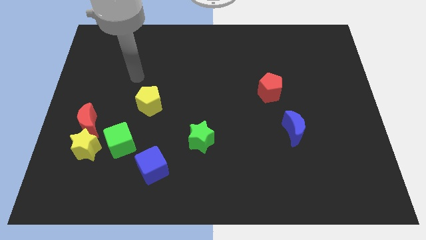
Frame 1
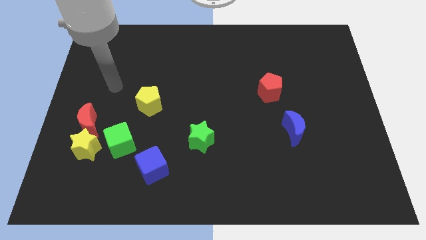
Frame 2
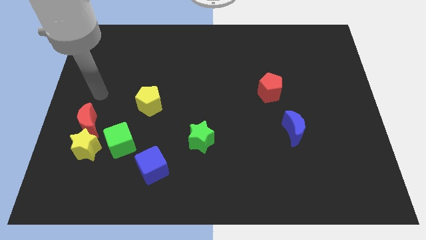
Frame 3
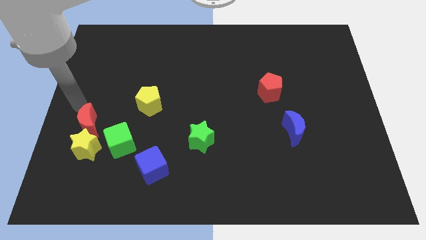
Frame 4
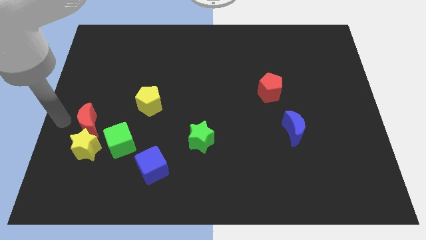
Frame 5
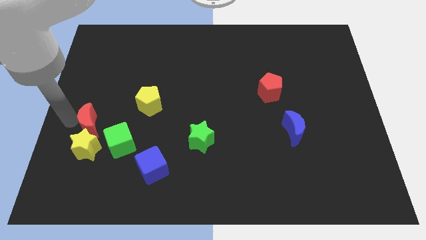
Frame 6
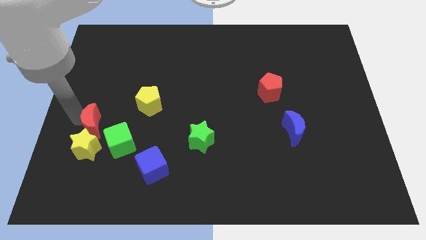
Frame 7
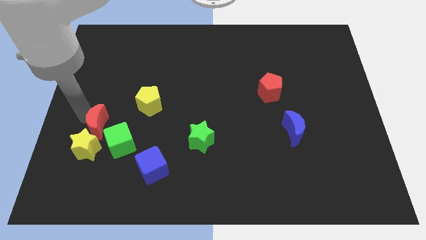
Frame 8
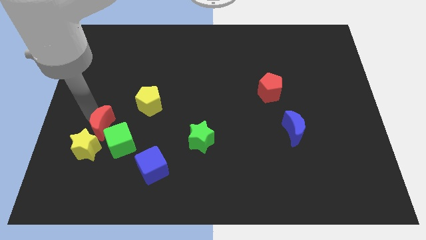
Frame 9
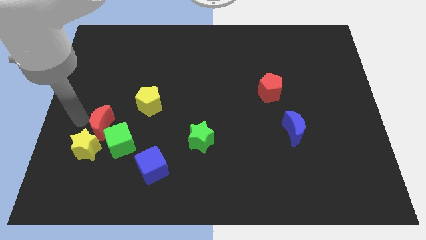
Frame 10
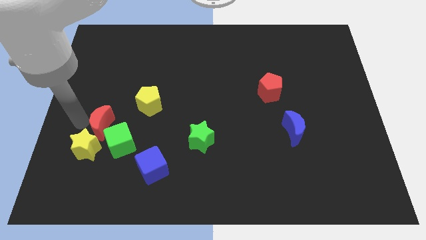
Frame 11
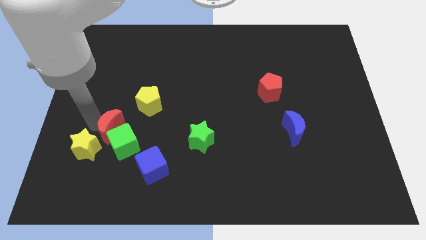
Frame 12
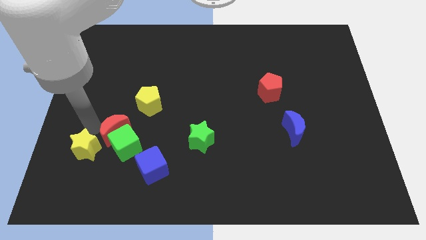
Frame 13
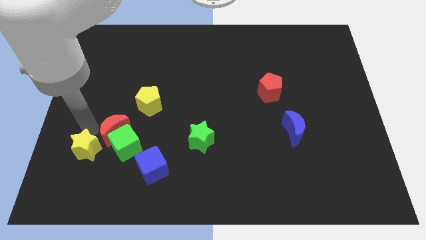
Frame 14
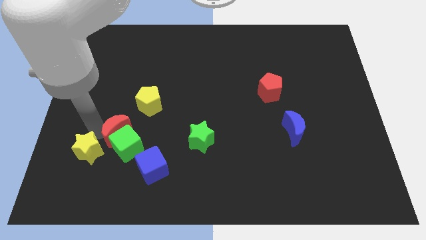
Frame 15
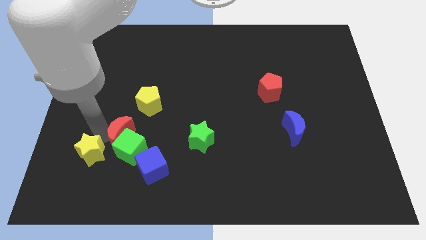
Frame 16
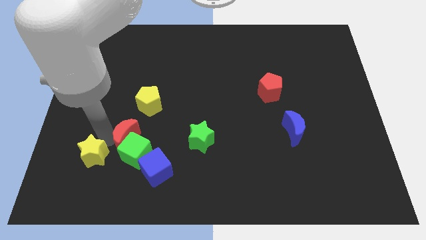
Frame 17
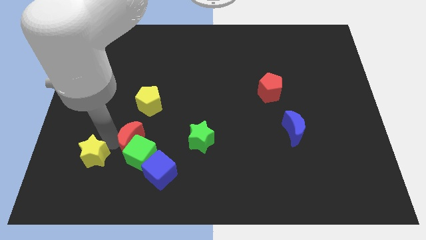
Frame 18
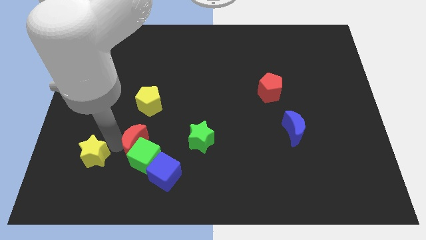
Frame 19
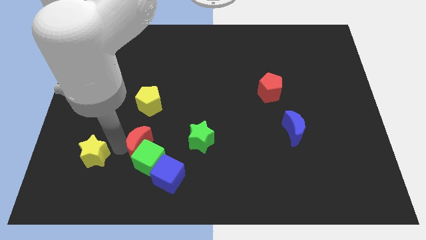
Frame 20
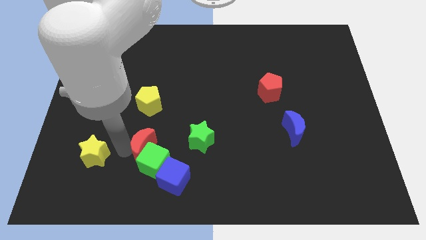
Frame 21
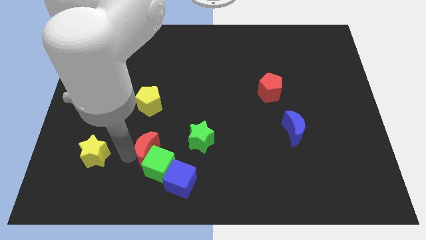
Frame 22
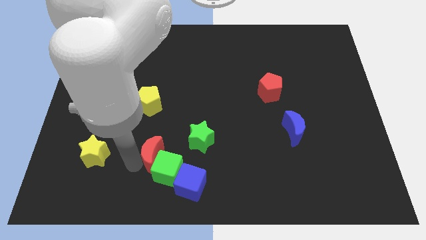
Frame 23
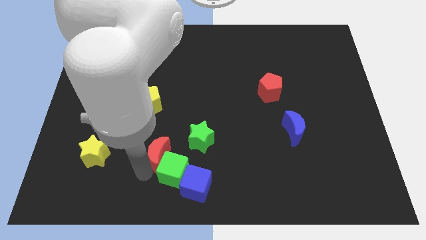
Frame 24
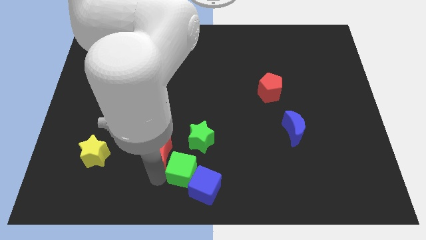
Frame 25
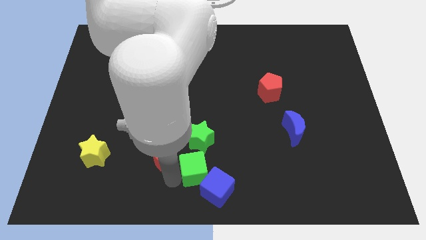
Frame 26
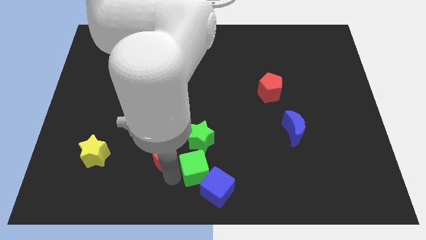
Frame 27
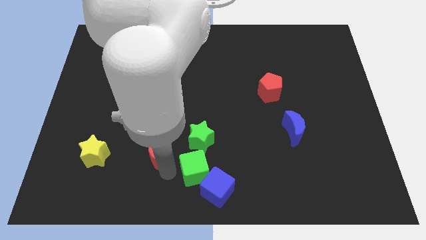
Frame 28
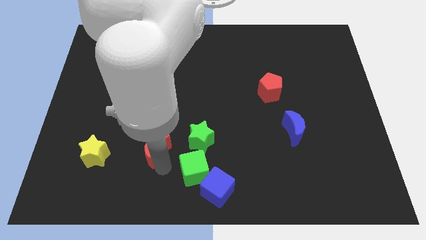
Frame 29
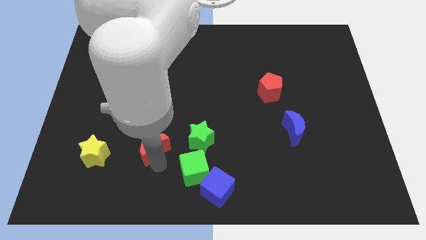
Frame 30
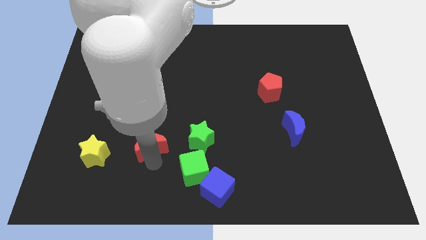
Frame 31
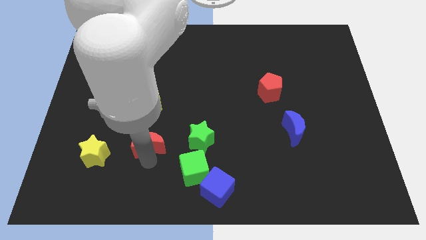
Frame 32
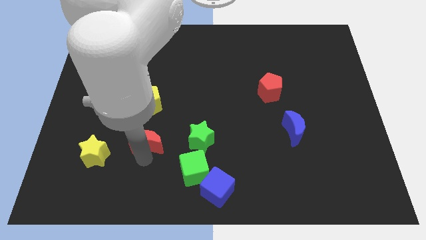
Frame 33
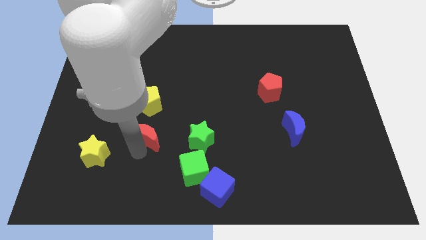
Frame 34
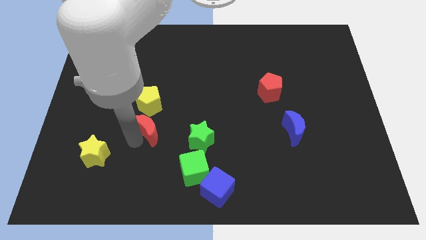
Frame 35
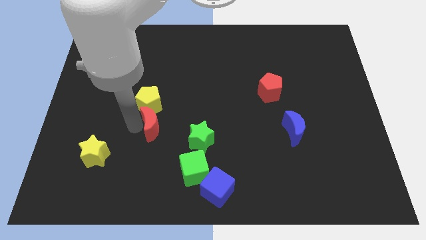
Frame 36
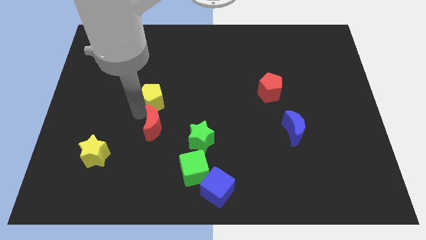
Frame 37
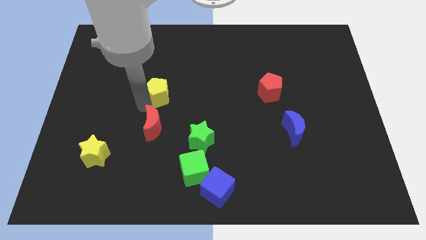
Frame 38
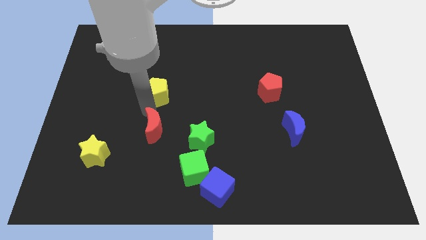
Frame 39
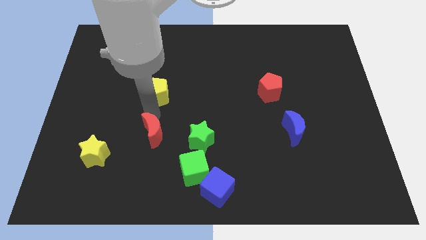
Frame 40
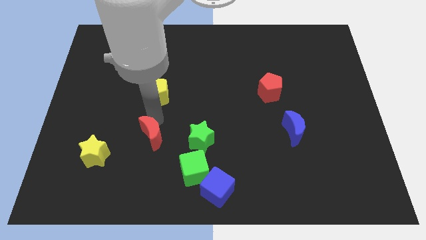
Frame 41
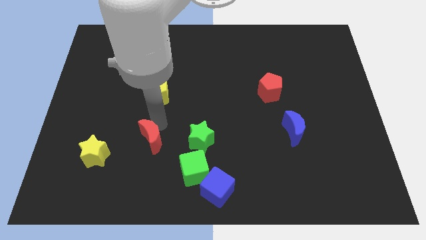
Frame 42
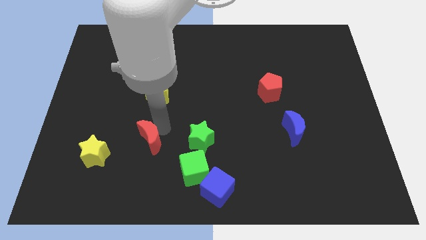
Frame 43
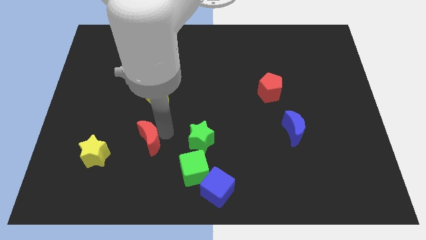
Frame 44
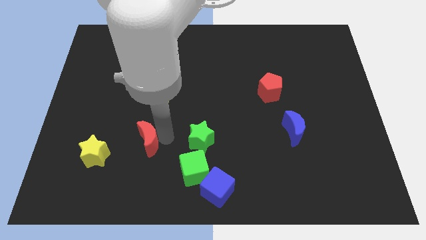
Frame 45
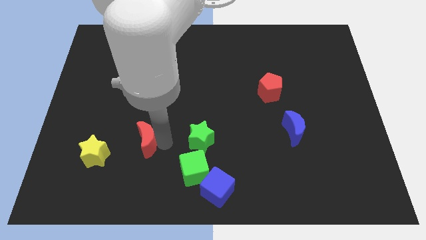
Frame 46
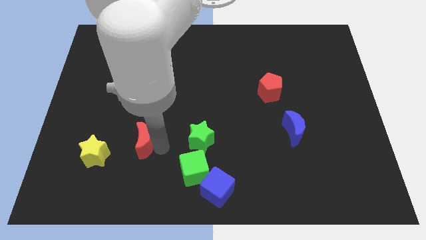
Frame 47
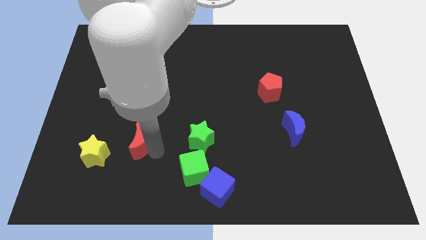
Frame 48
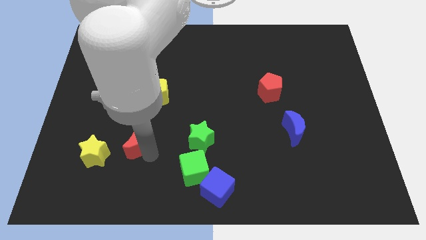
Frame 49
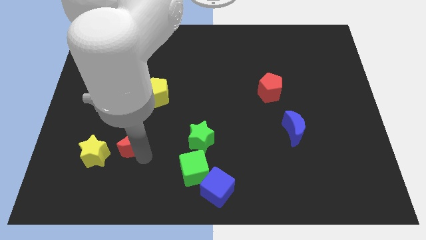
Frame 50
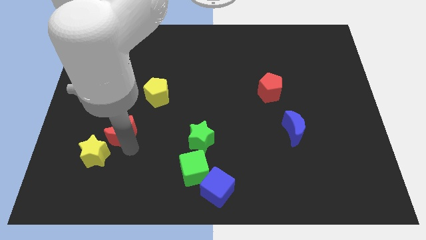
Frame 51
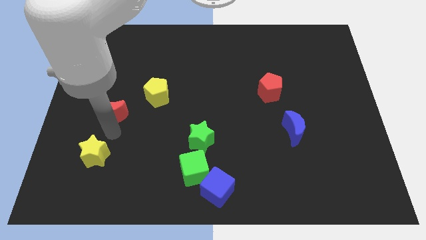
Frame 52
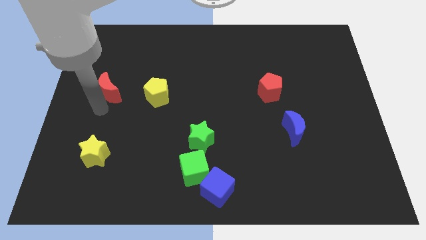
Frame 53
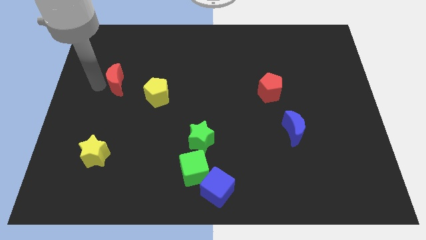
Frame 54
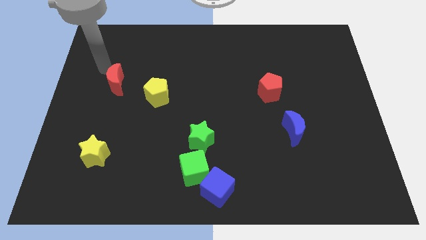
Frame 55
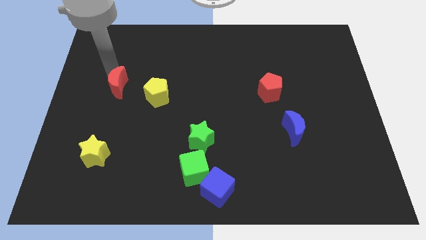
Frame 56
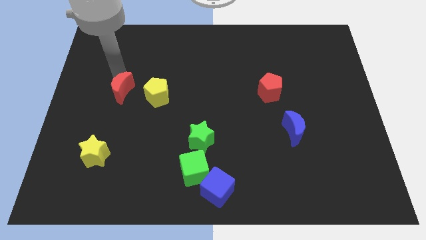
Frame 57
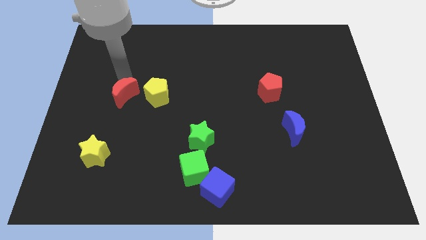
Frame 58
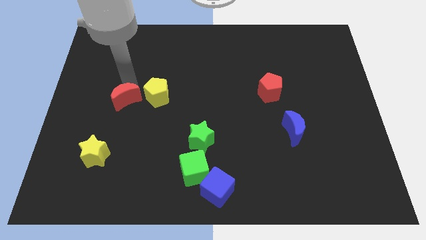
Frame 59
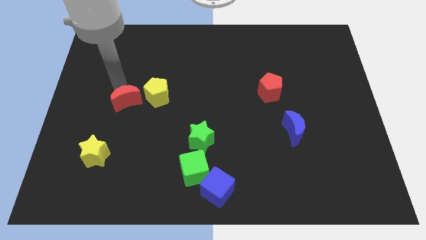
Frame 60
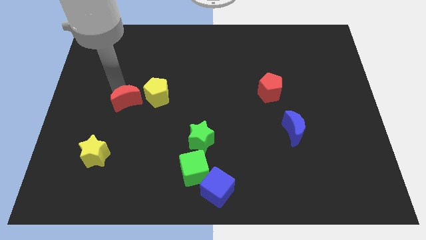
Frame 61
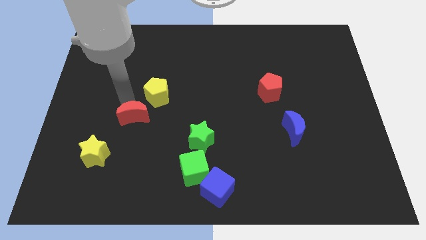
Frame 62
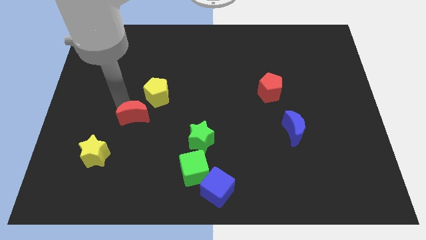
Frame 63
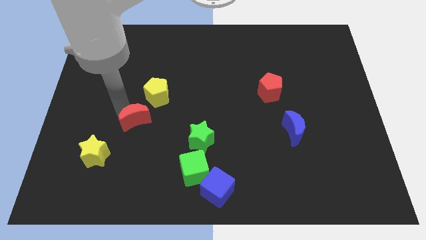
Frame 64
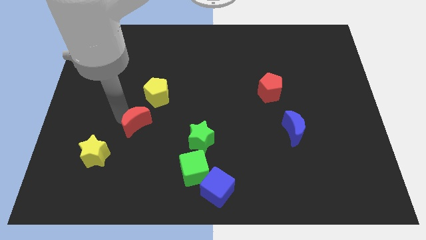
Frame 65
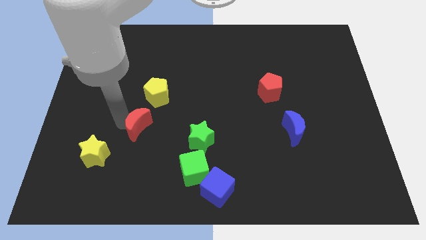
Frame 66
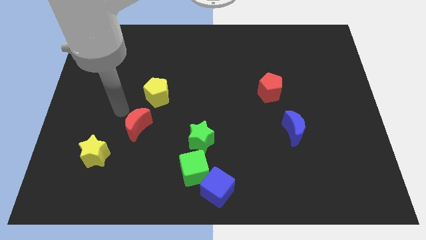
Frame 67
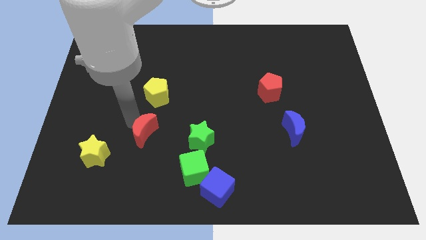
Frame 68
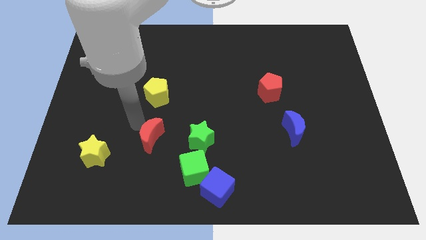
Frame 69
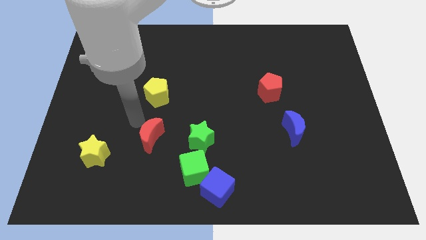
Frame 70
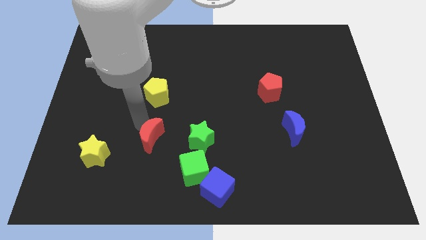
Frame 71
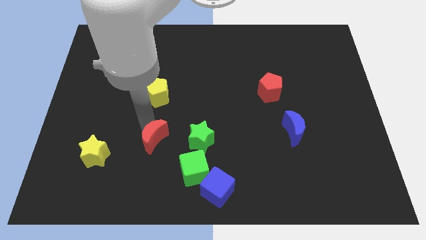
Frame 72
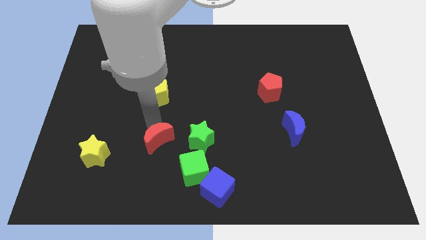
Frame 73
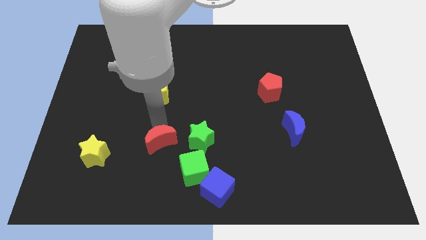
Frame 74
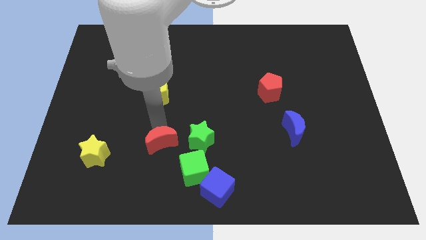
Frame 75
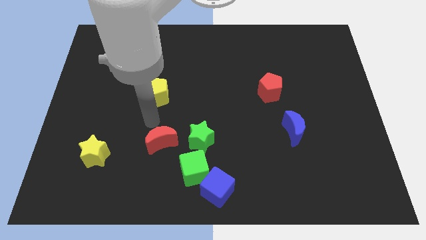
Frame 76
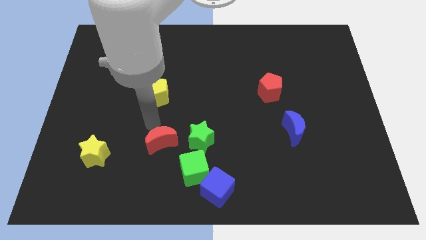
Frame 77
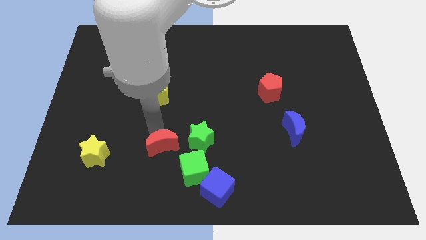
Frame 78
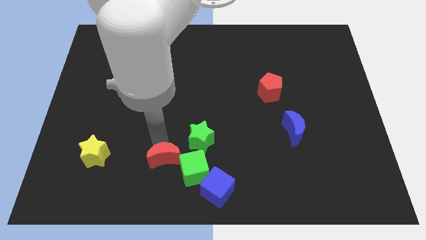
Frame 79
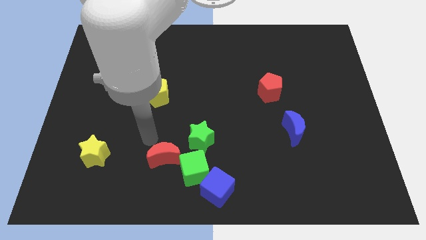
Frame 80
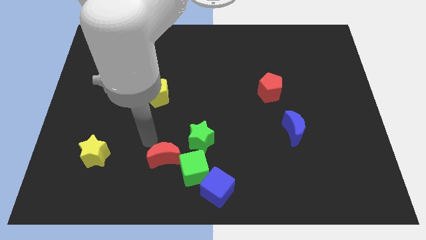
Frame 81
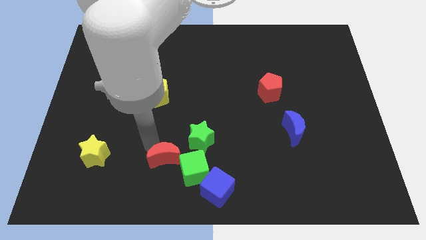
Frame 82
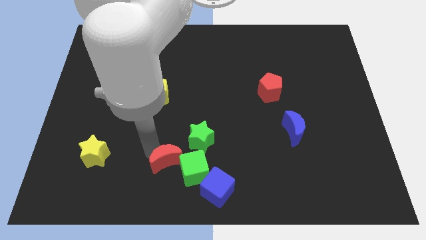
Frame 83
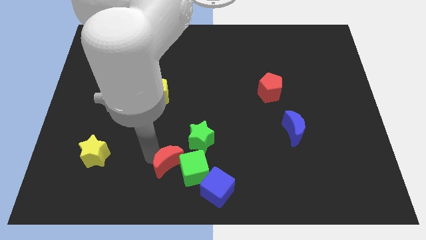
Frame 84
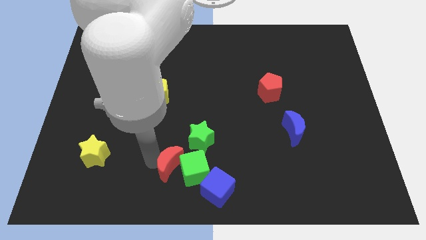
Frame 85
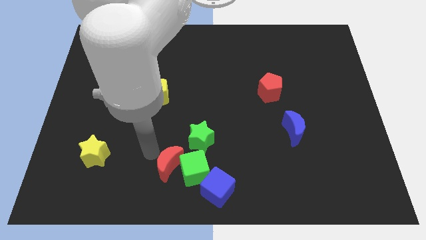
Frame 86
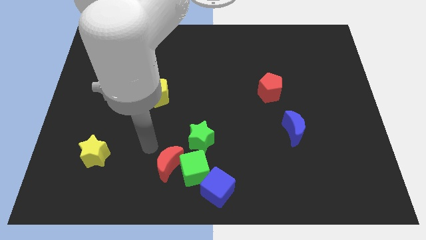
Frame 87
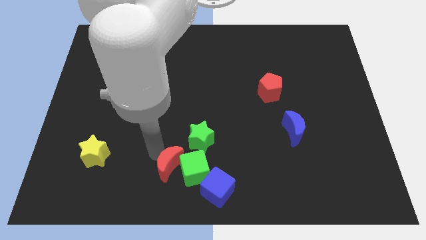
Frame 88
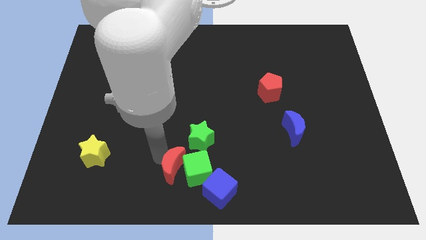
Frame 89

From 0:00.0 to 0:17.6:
put the red moon to the bottom
